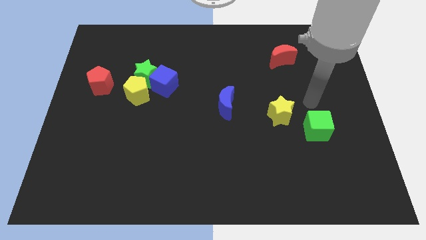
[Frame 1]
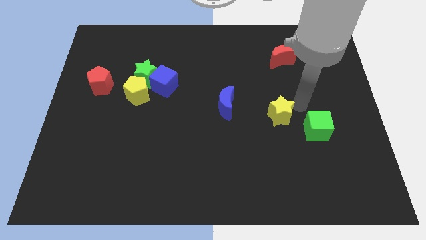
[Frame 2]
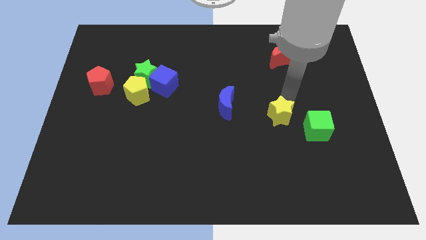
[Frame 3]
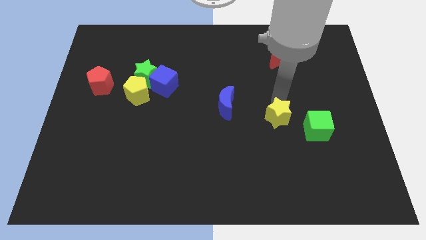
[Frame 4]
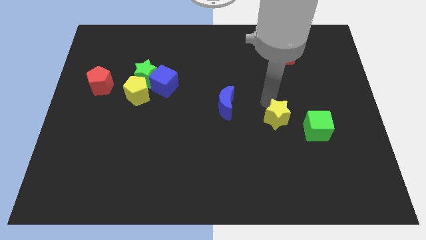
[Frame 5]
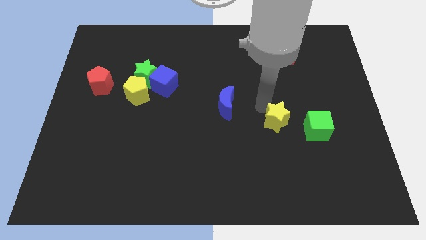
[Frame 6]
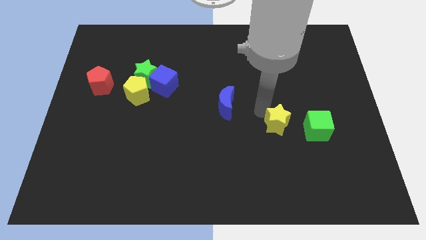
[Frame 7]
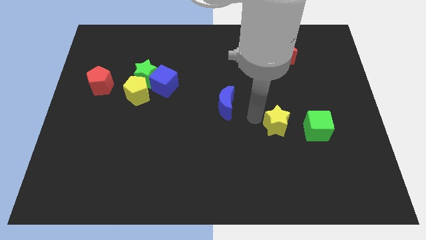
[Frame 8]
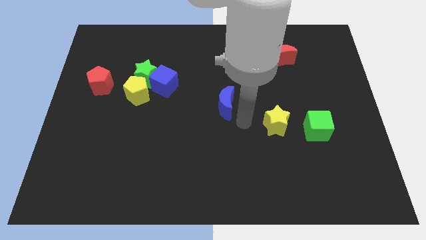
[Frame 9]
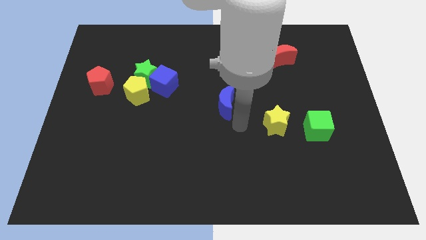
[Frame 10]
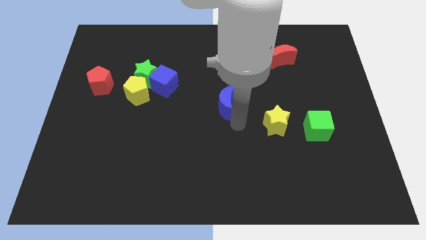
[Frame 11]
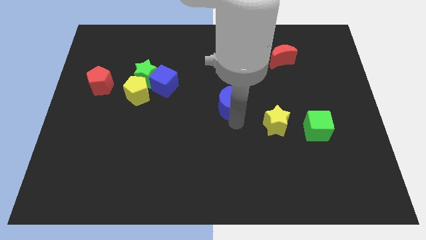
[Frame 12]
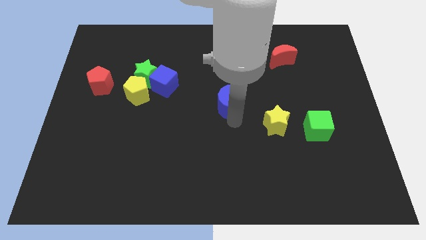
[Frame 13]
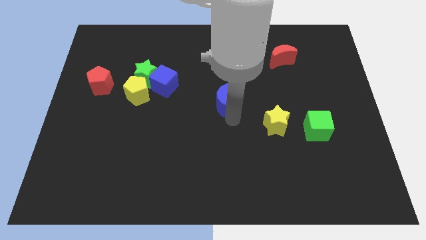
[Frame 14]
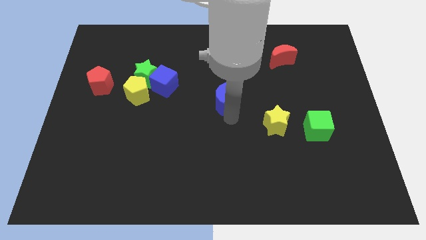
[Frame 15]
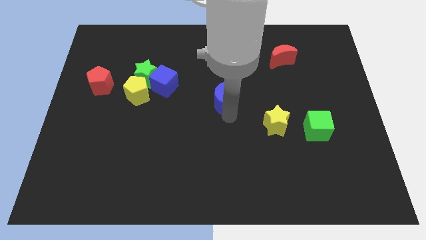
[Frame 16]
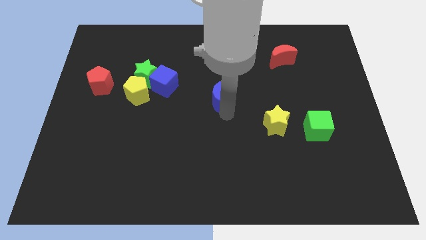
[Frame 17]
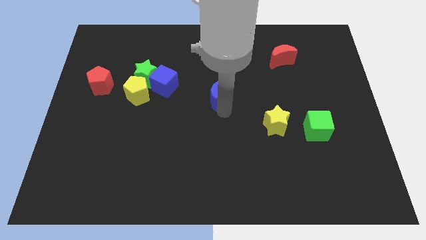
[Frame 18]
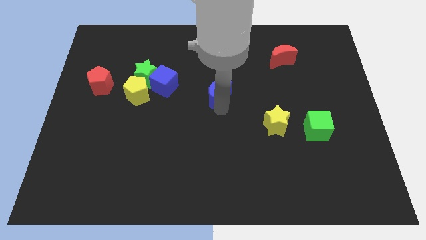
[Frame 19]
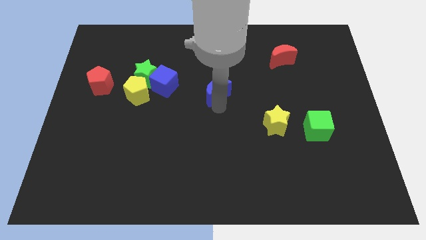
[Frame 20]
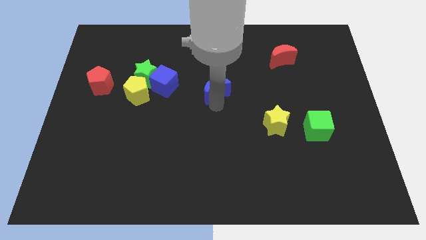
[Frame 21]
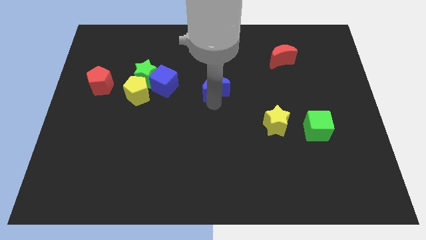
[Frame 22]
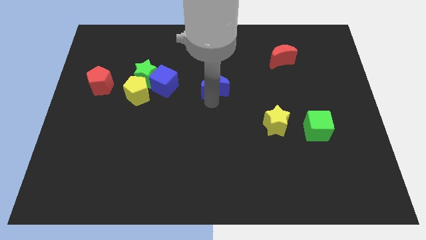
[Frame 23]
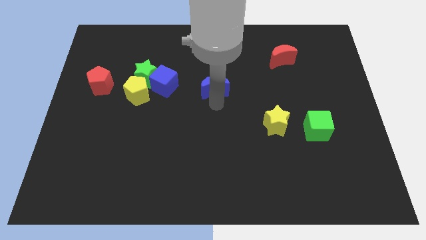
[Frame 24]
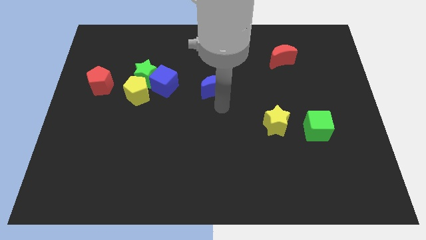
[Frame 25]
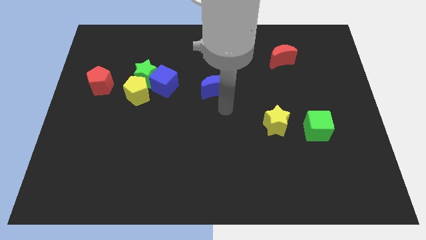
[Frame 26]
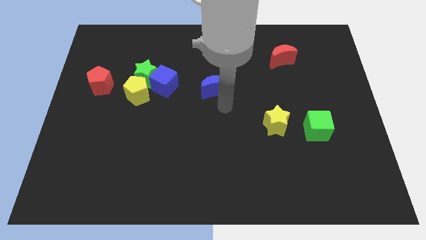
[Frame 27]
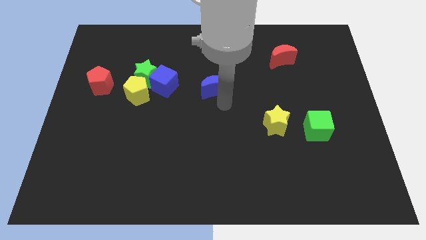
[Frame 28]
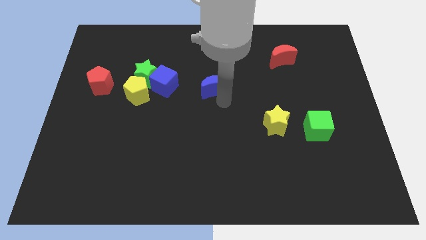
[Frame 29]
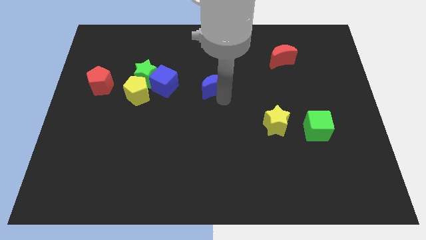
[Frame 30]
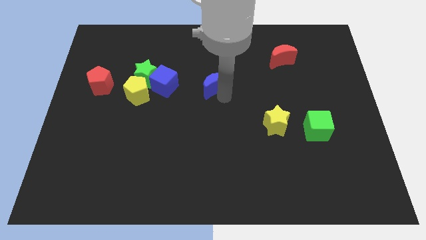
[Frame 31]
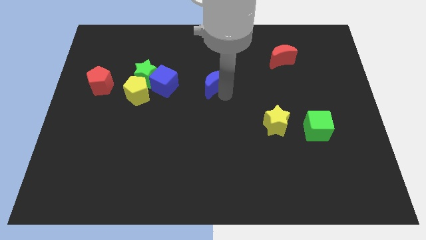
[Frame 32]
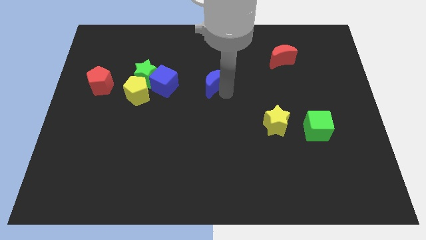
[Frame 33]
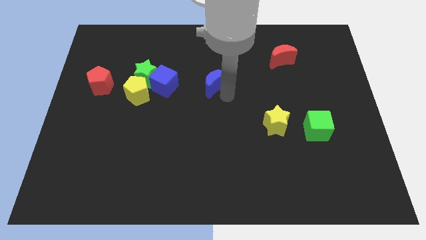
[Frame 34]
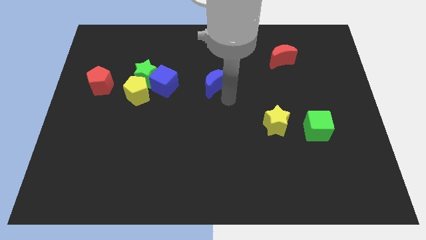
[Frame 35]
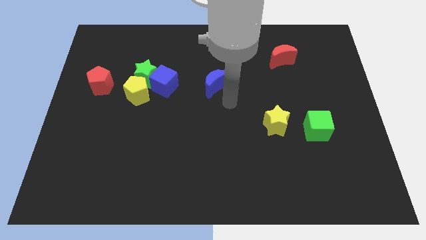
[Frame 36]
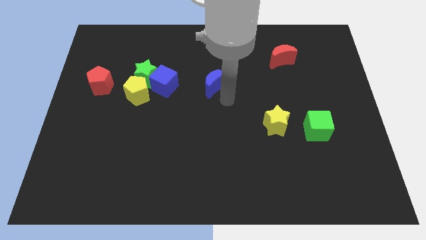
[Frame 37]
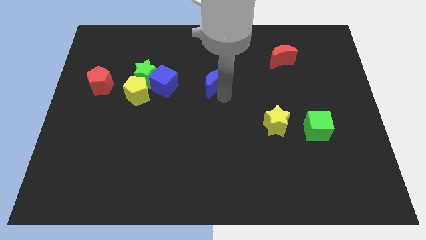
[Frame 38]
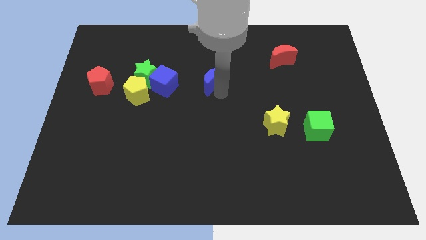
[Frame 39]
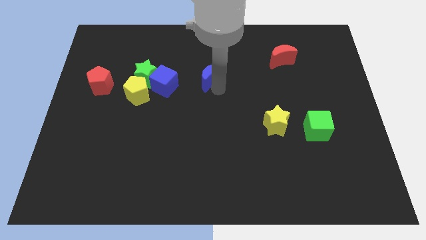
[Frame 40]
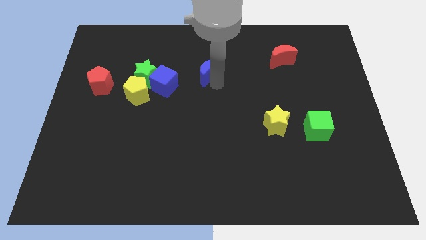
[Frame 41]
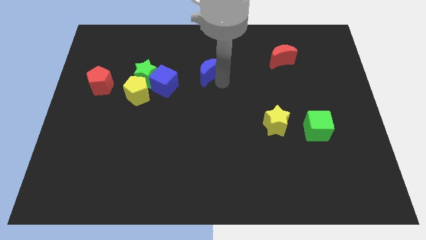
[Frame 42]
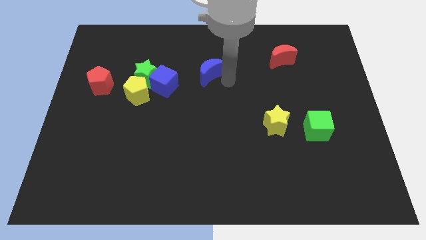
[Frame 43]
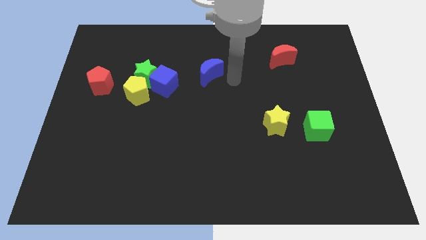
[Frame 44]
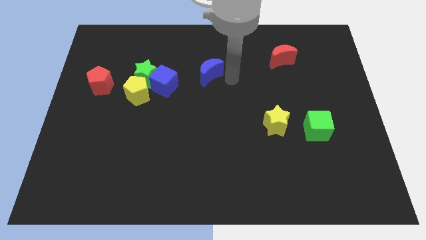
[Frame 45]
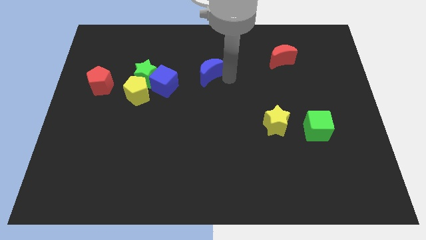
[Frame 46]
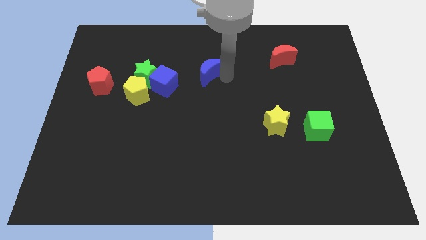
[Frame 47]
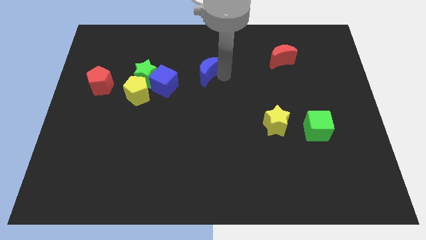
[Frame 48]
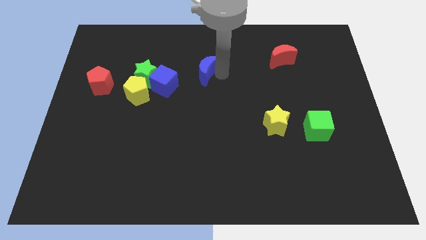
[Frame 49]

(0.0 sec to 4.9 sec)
push the blue moon to the top right of the blue cube
